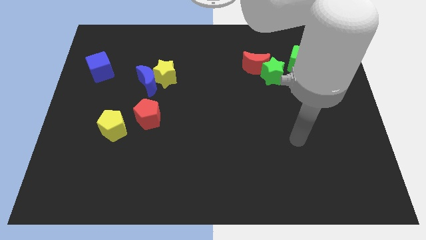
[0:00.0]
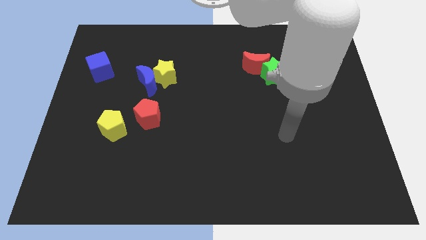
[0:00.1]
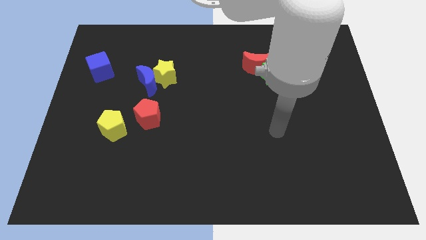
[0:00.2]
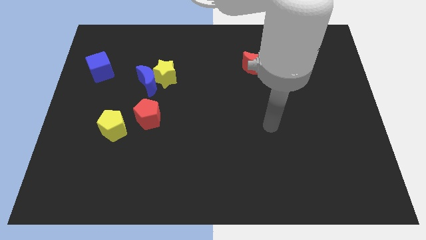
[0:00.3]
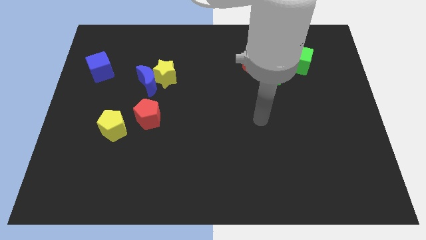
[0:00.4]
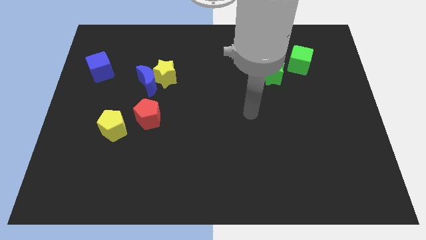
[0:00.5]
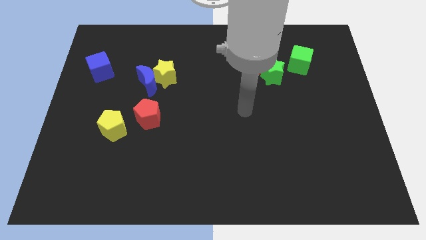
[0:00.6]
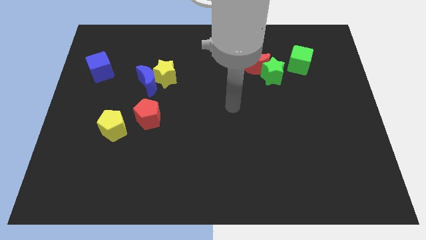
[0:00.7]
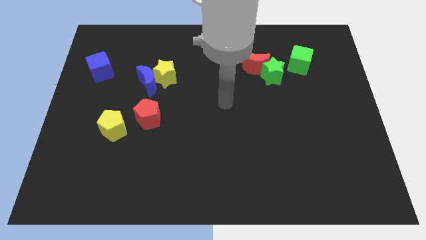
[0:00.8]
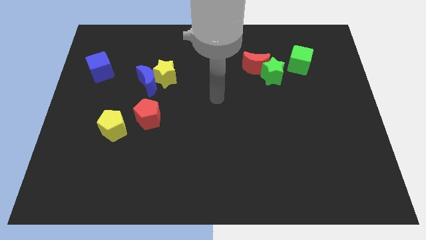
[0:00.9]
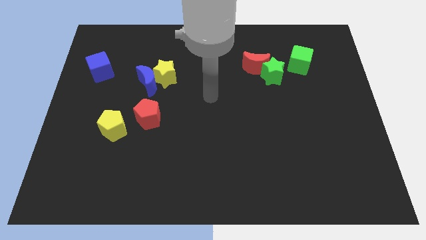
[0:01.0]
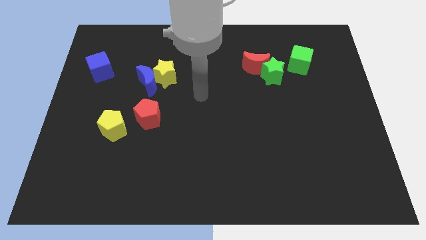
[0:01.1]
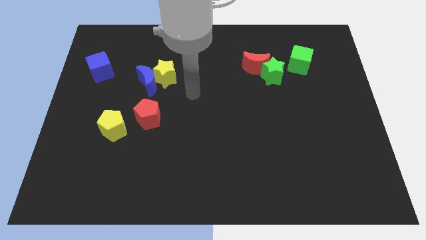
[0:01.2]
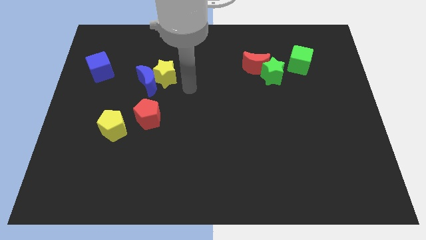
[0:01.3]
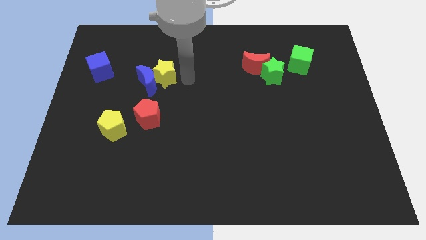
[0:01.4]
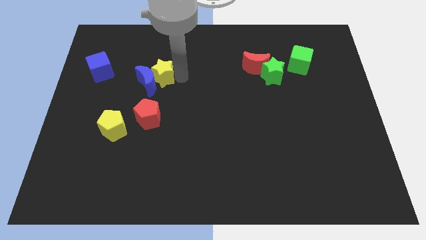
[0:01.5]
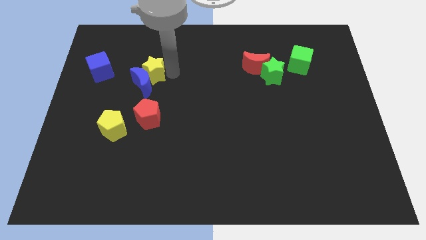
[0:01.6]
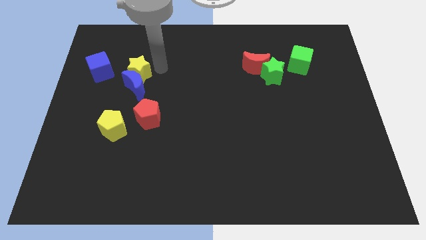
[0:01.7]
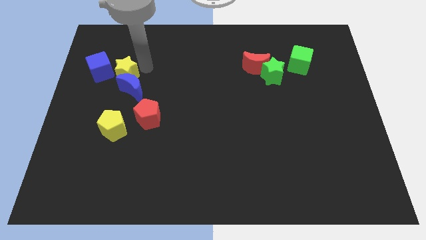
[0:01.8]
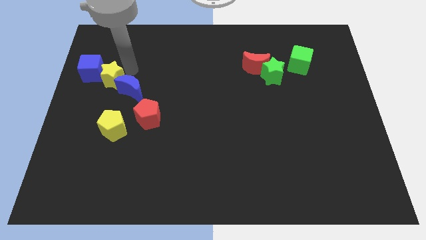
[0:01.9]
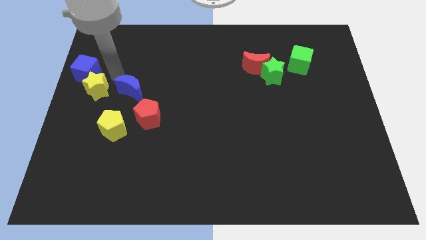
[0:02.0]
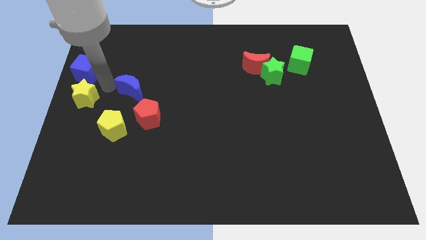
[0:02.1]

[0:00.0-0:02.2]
move the blue moon away from the yellow star

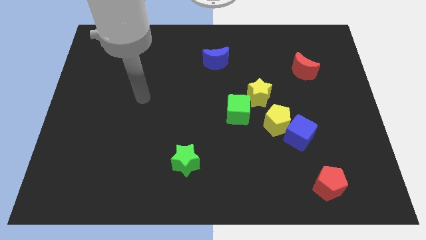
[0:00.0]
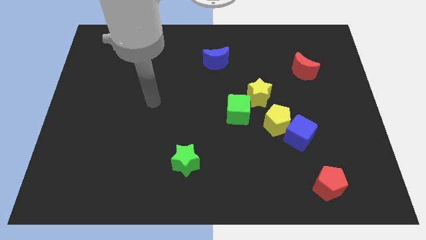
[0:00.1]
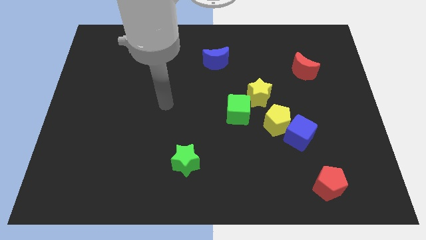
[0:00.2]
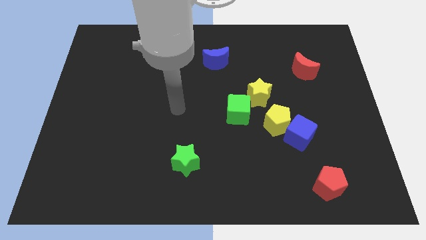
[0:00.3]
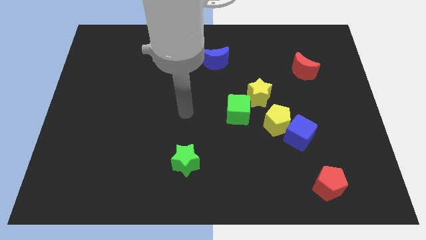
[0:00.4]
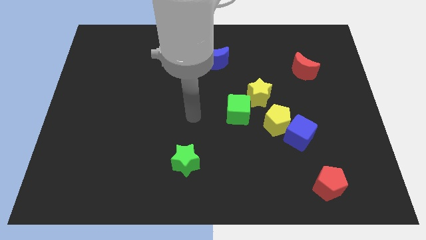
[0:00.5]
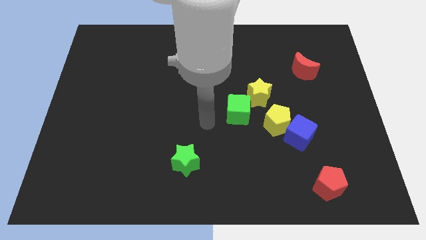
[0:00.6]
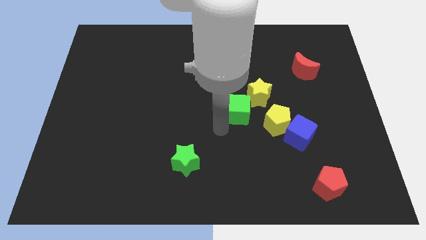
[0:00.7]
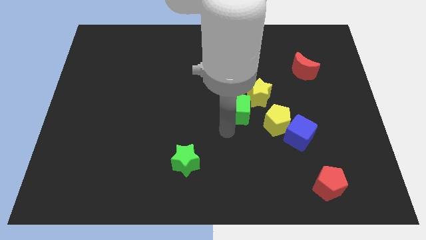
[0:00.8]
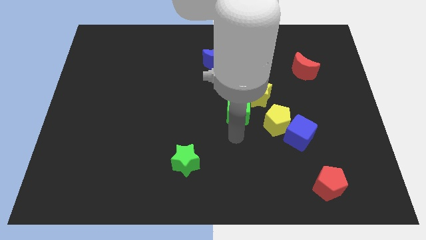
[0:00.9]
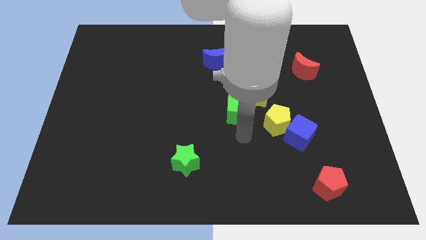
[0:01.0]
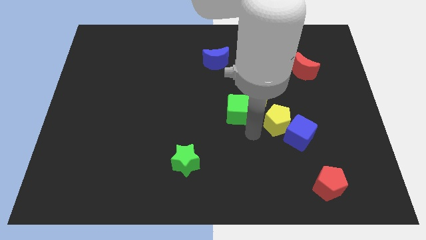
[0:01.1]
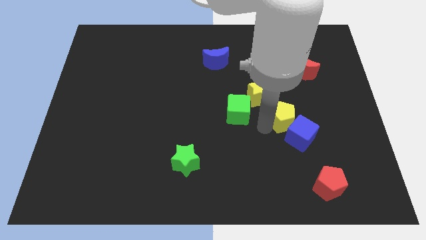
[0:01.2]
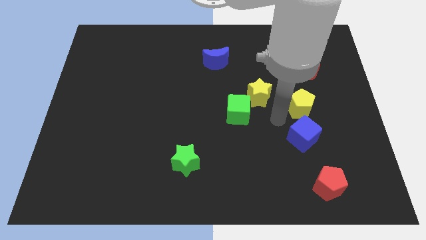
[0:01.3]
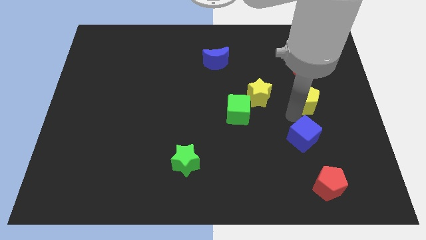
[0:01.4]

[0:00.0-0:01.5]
move the blue cube away from the yellow pentagon

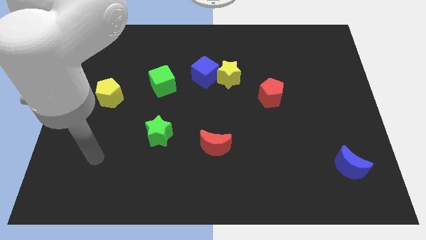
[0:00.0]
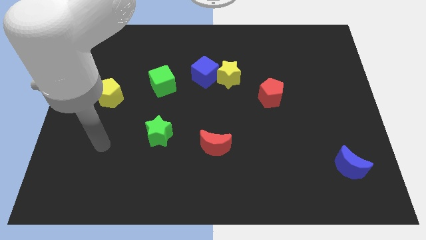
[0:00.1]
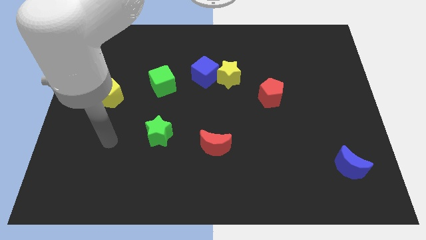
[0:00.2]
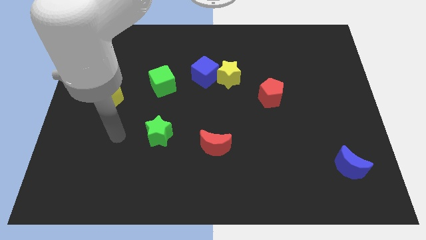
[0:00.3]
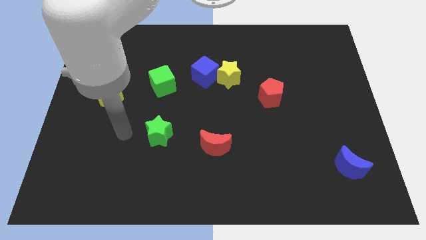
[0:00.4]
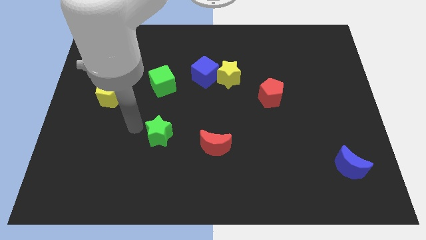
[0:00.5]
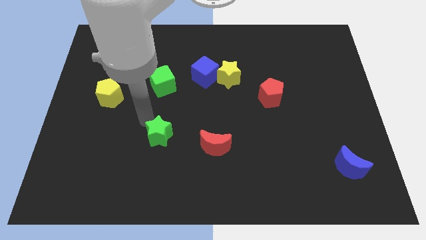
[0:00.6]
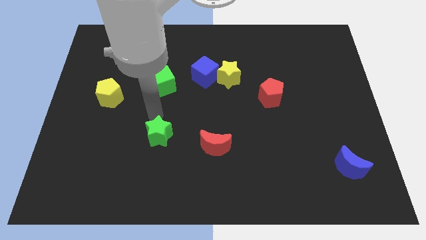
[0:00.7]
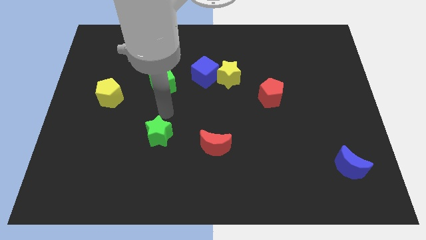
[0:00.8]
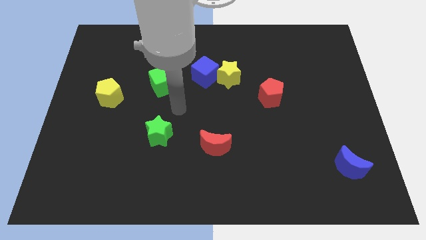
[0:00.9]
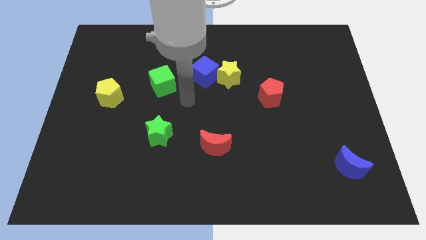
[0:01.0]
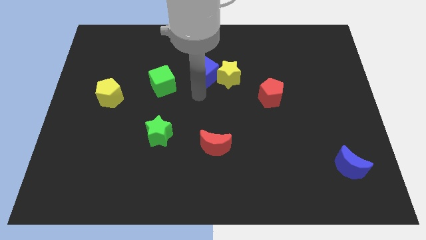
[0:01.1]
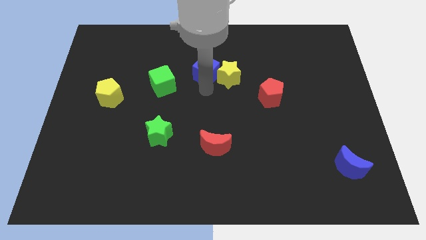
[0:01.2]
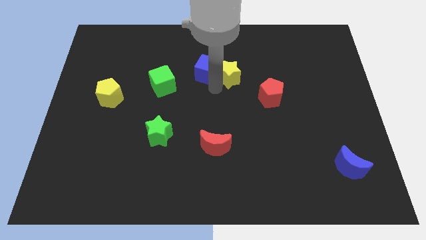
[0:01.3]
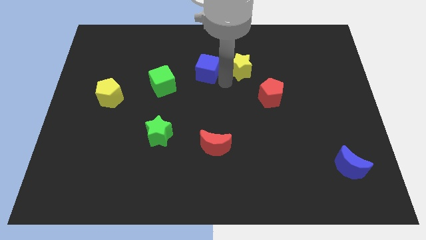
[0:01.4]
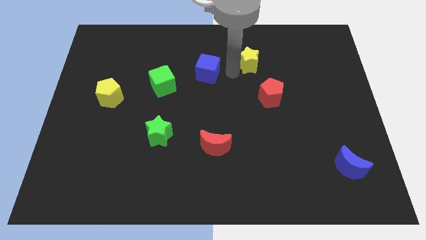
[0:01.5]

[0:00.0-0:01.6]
separate the blue cube from the yellow star

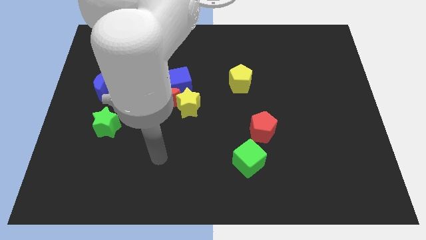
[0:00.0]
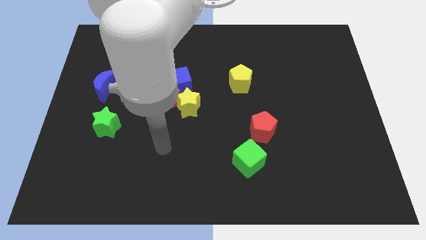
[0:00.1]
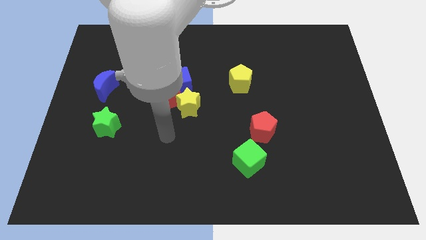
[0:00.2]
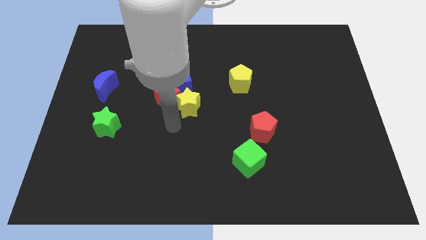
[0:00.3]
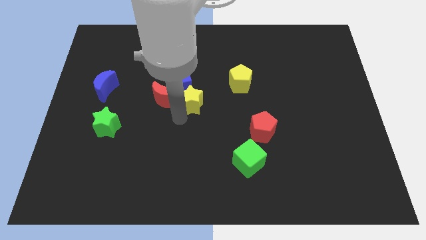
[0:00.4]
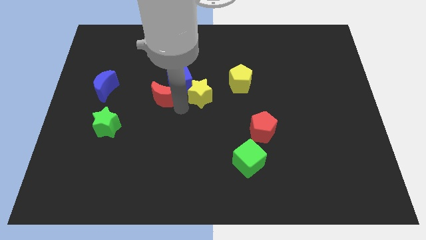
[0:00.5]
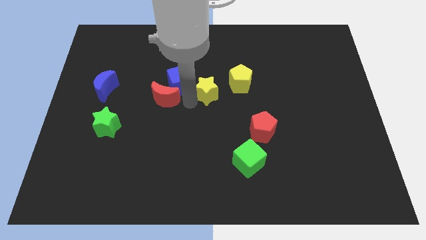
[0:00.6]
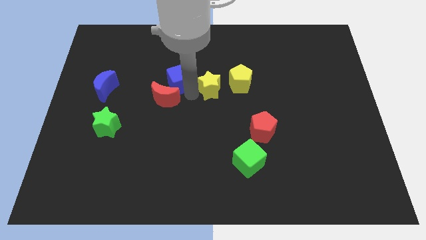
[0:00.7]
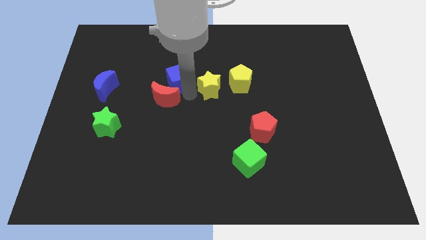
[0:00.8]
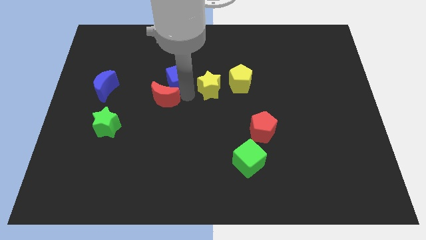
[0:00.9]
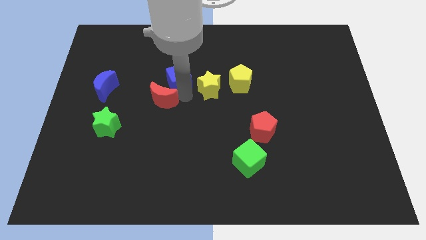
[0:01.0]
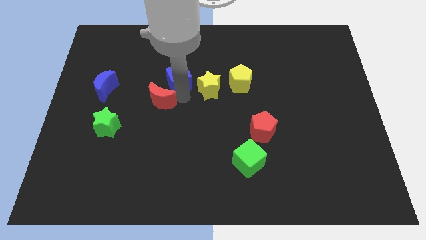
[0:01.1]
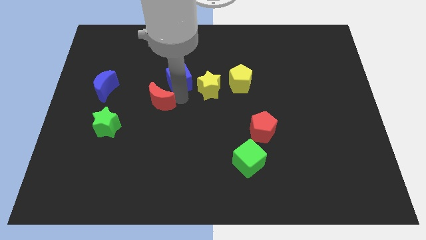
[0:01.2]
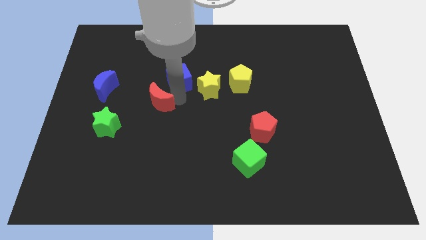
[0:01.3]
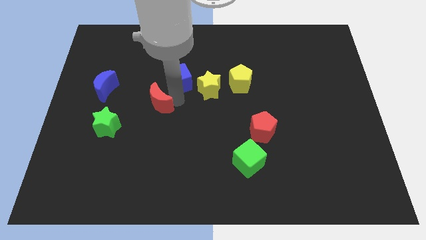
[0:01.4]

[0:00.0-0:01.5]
move the red moon away from the blue cube and yellow star

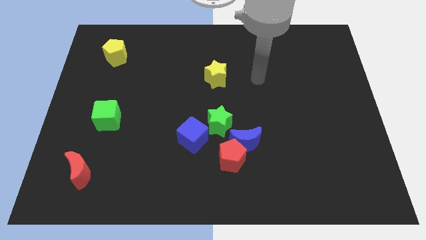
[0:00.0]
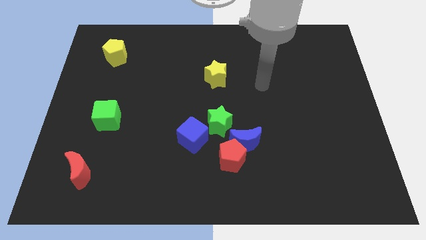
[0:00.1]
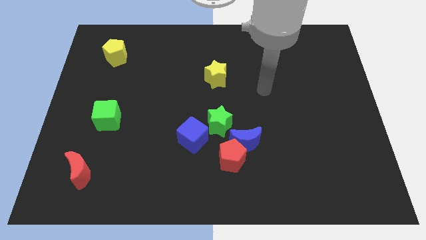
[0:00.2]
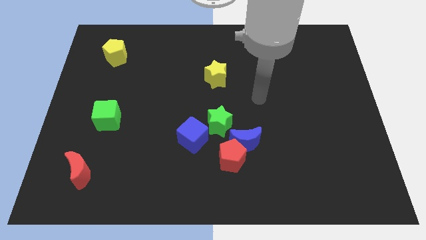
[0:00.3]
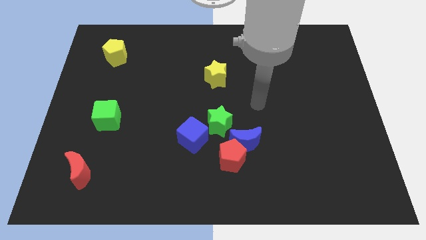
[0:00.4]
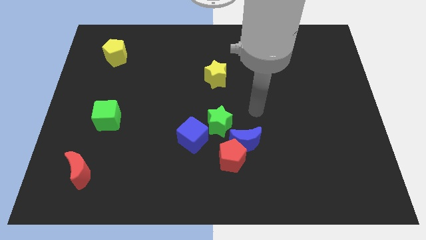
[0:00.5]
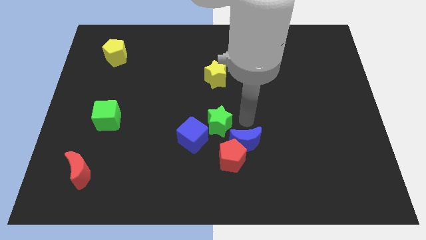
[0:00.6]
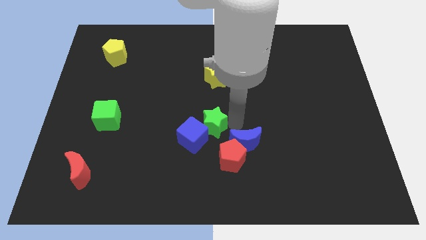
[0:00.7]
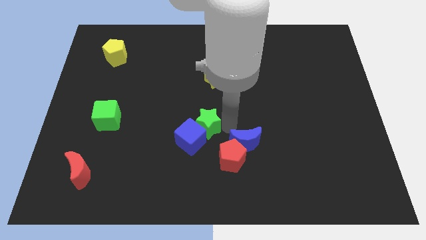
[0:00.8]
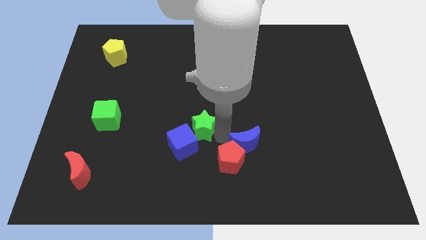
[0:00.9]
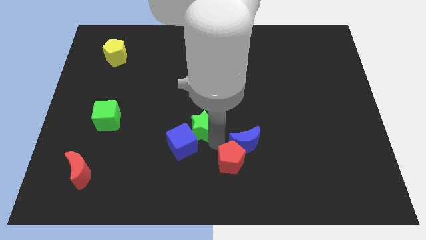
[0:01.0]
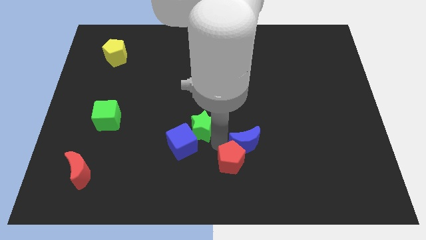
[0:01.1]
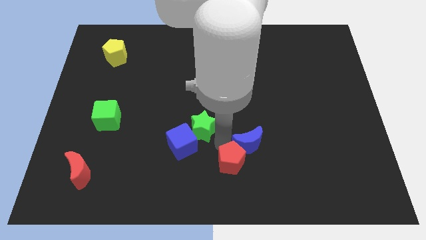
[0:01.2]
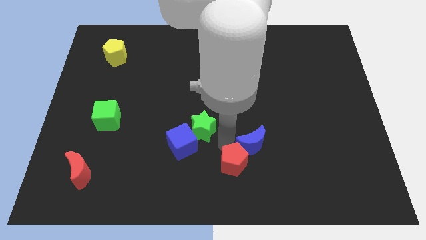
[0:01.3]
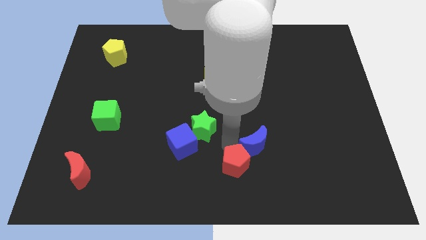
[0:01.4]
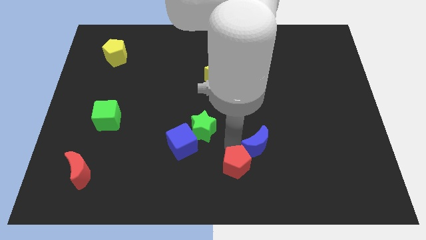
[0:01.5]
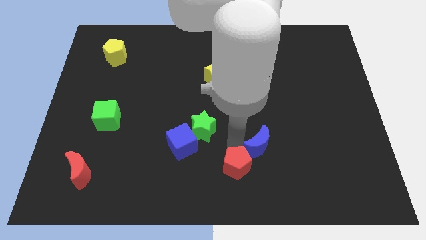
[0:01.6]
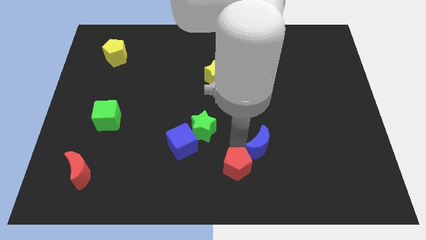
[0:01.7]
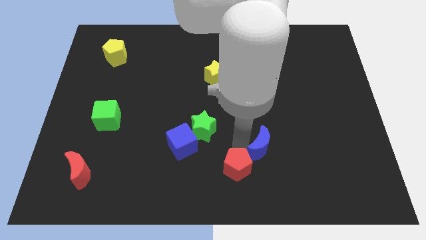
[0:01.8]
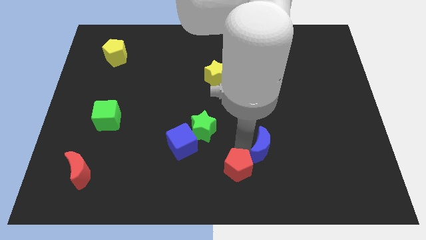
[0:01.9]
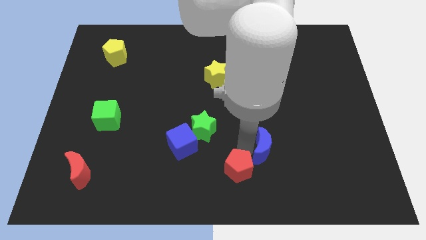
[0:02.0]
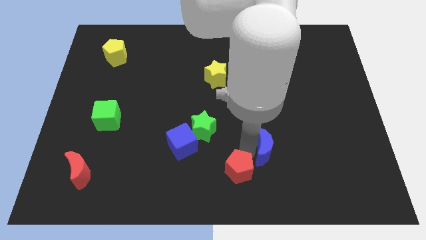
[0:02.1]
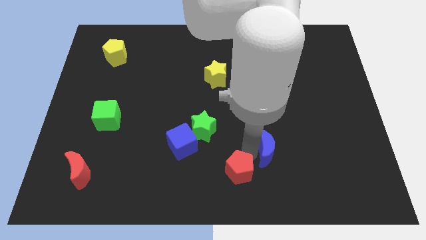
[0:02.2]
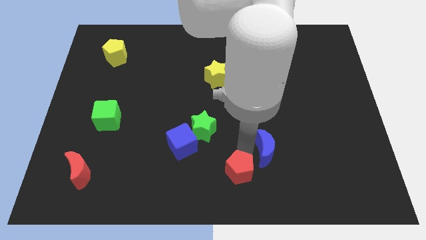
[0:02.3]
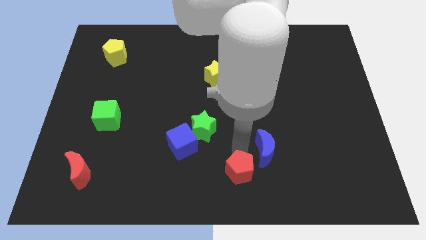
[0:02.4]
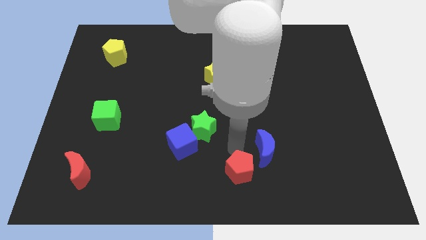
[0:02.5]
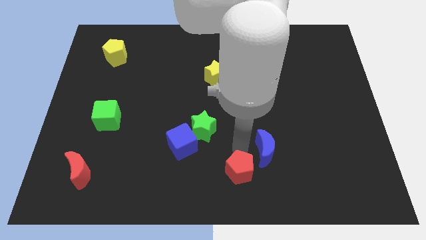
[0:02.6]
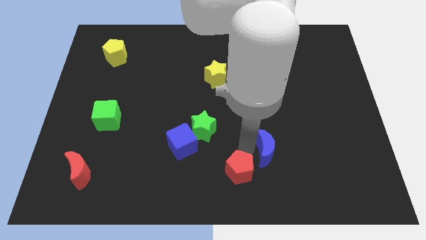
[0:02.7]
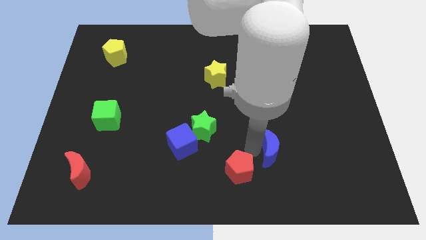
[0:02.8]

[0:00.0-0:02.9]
separate the blue moon from the red pentagon and green star
